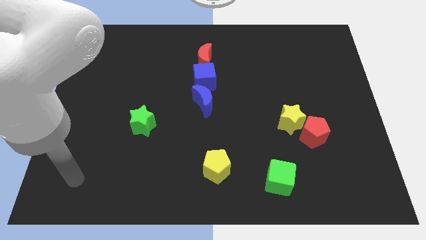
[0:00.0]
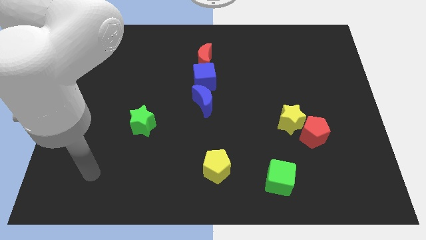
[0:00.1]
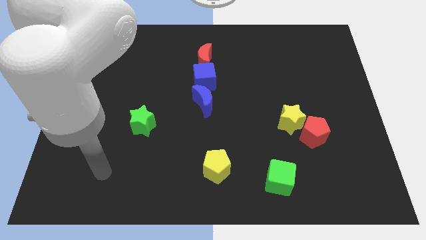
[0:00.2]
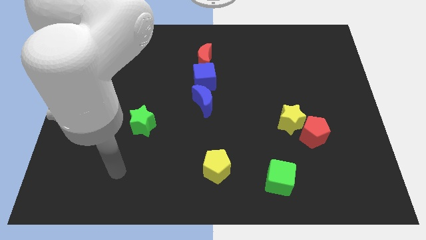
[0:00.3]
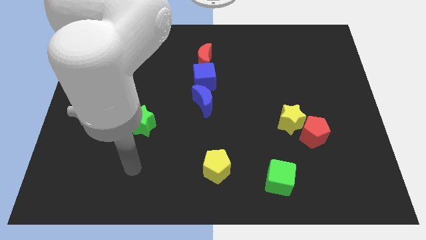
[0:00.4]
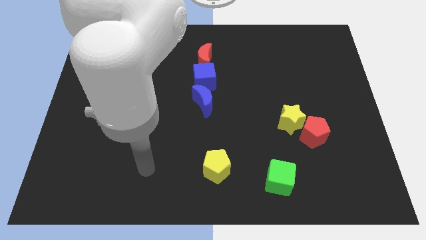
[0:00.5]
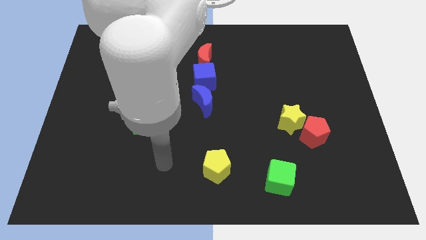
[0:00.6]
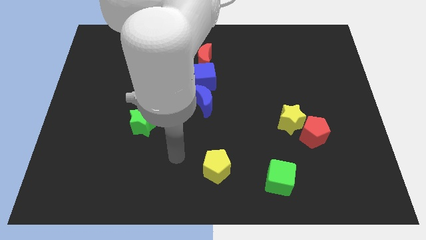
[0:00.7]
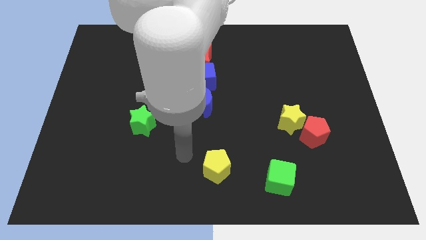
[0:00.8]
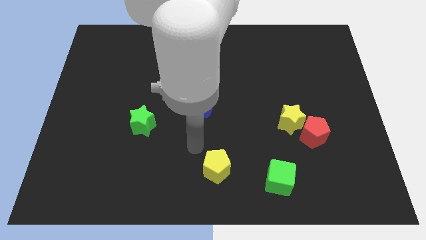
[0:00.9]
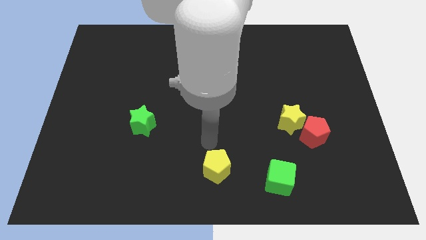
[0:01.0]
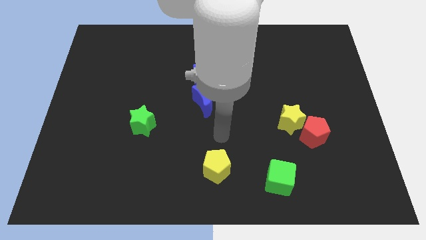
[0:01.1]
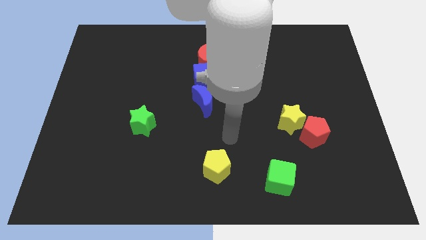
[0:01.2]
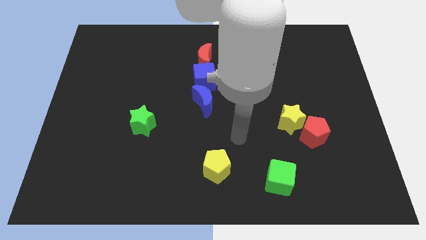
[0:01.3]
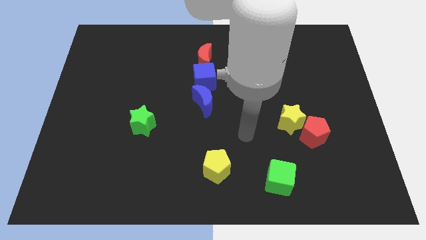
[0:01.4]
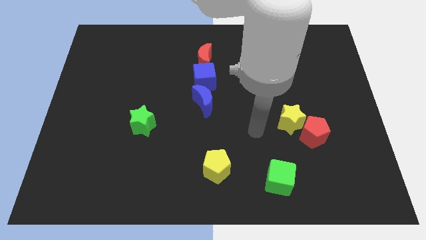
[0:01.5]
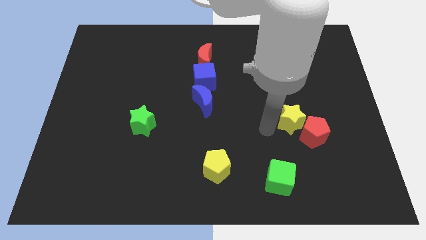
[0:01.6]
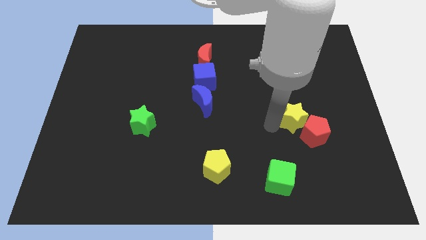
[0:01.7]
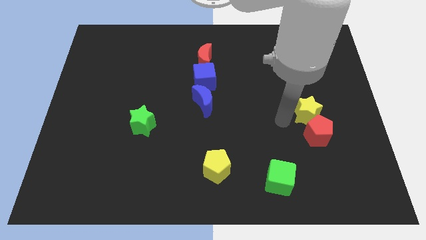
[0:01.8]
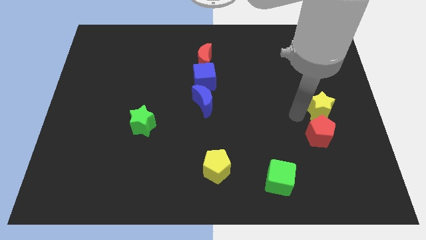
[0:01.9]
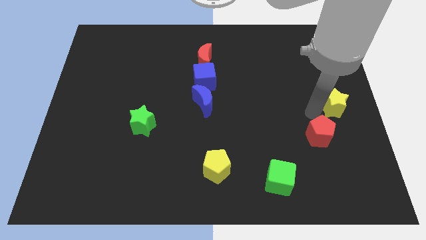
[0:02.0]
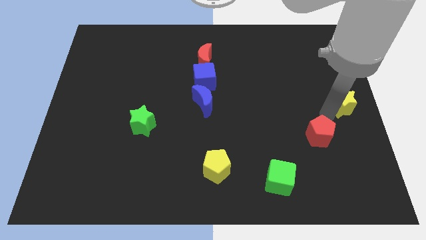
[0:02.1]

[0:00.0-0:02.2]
pull the red pentagon apart from the yellow star

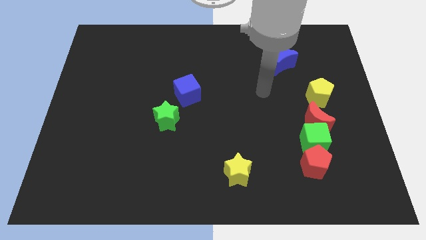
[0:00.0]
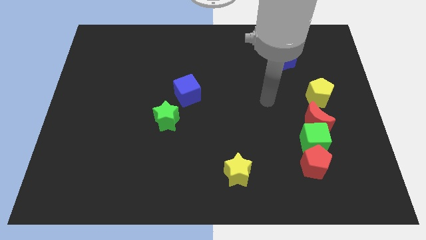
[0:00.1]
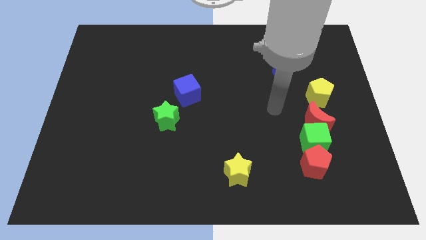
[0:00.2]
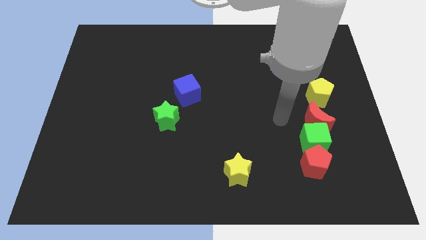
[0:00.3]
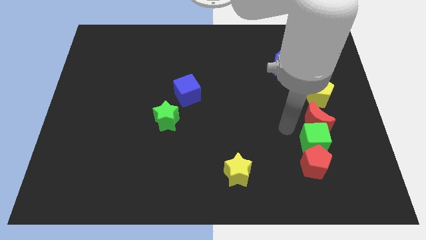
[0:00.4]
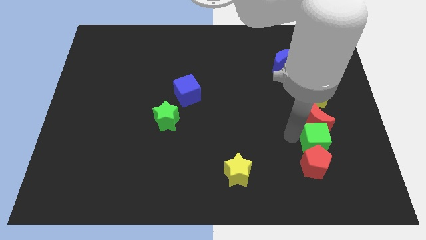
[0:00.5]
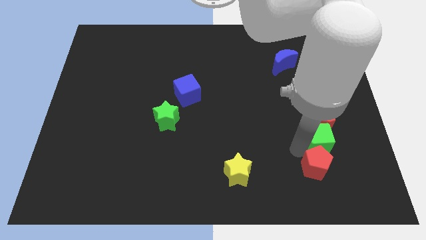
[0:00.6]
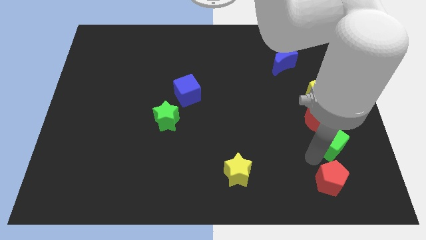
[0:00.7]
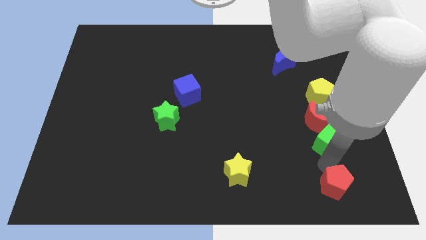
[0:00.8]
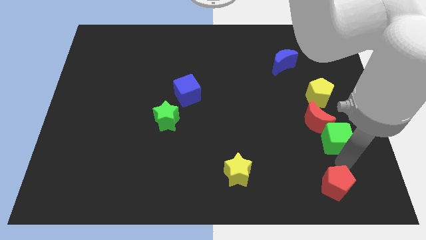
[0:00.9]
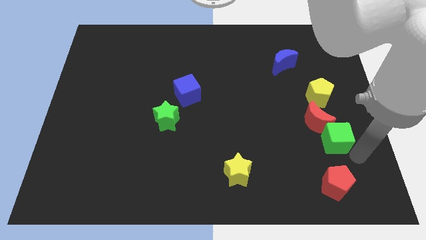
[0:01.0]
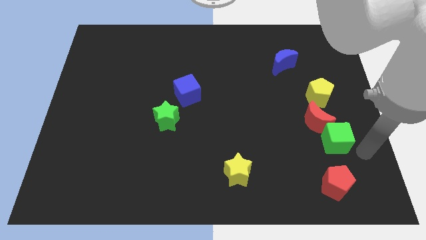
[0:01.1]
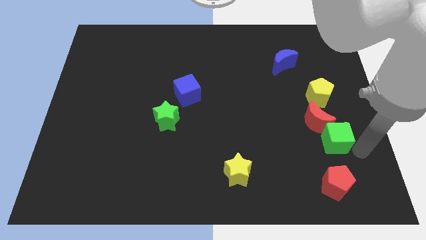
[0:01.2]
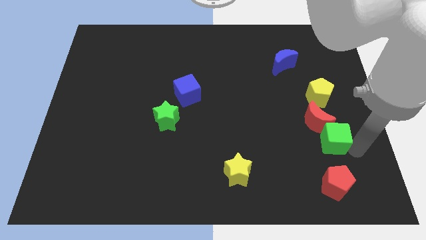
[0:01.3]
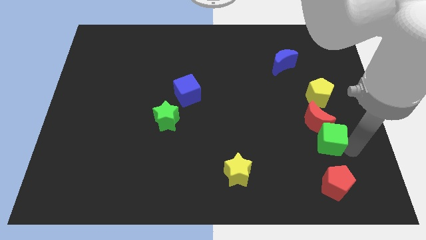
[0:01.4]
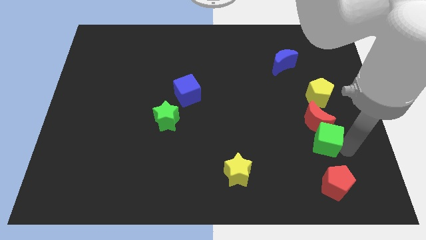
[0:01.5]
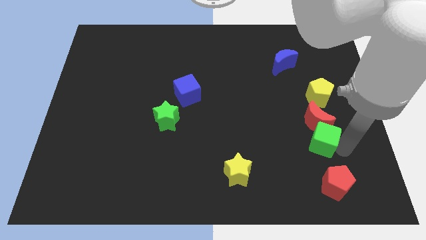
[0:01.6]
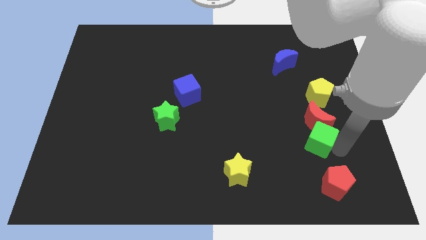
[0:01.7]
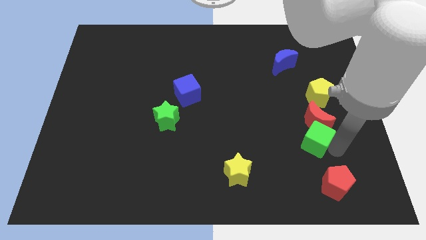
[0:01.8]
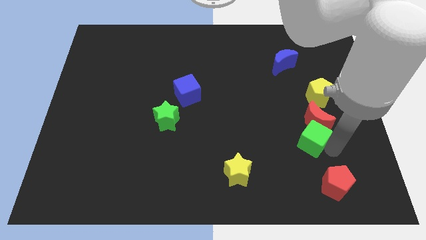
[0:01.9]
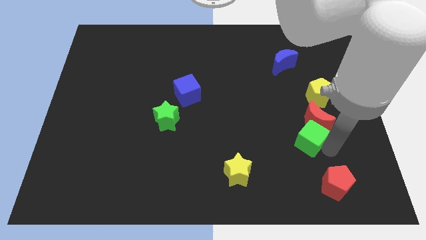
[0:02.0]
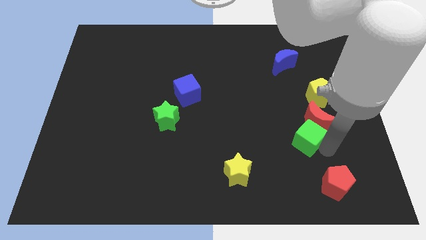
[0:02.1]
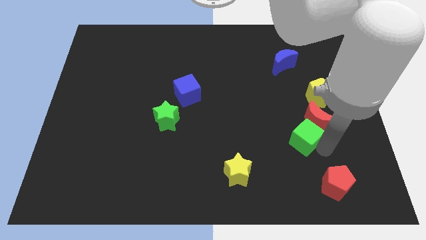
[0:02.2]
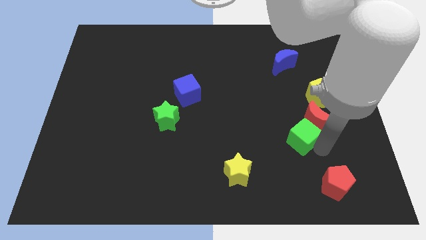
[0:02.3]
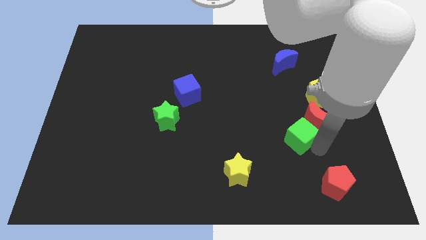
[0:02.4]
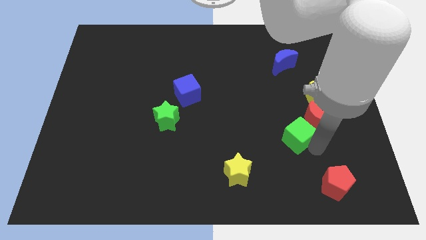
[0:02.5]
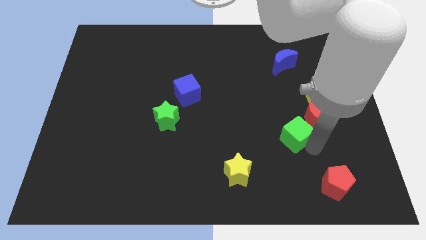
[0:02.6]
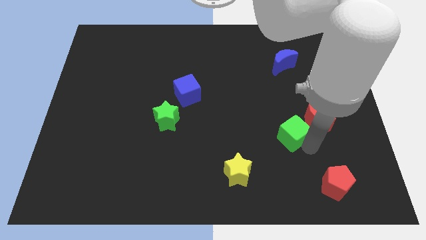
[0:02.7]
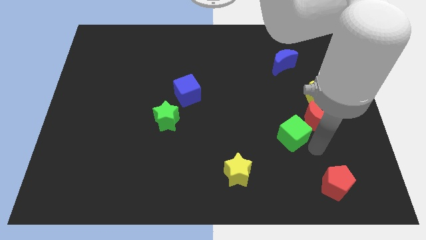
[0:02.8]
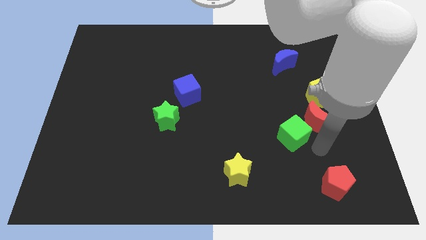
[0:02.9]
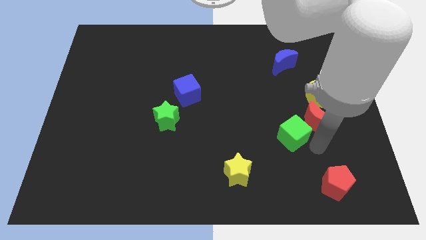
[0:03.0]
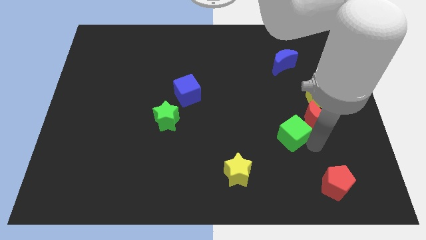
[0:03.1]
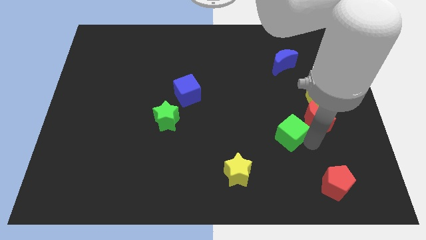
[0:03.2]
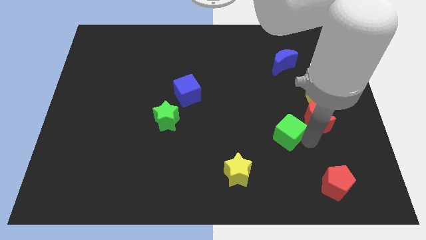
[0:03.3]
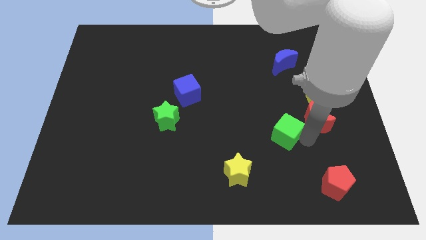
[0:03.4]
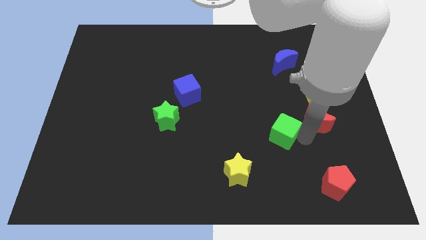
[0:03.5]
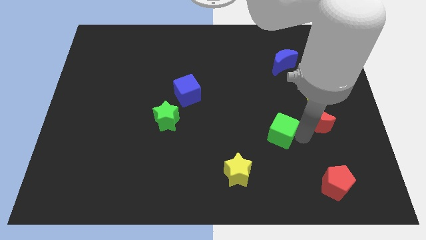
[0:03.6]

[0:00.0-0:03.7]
move the green cube away from the red moon and red pentagon

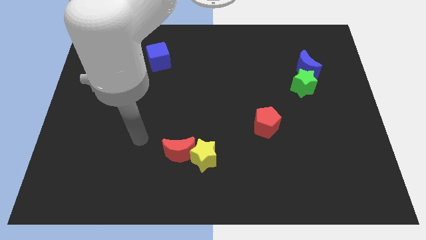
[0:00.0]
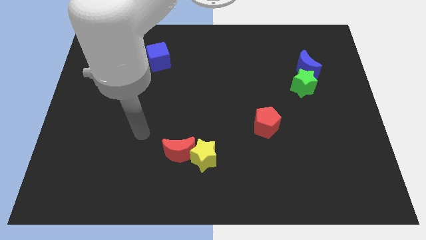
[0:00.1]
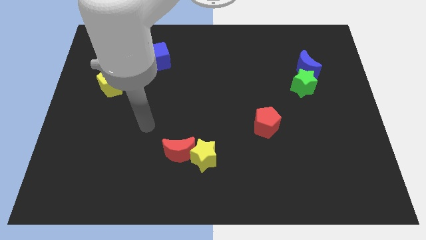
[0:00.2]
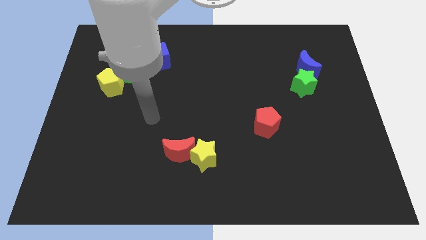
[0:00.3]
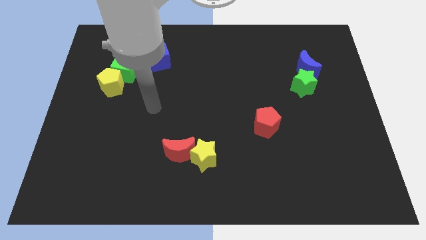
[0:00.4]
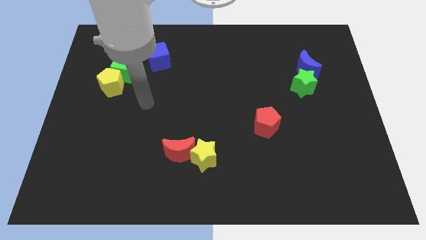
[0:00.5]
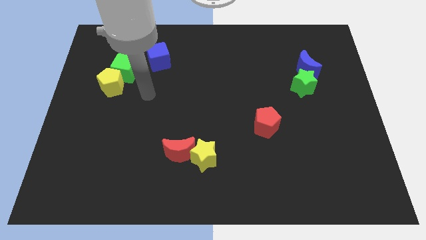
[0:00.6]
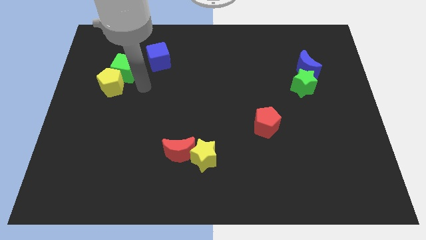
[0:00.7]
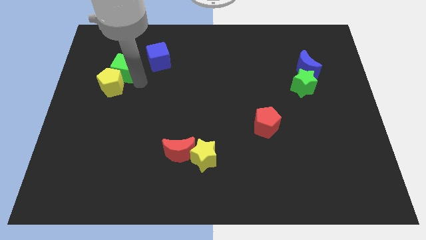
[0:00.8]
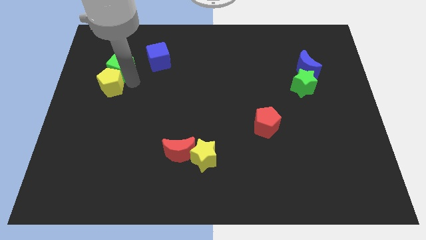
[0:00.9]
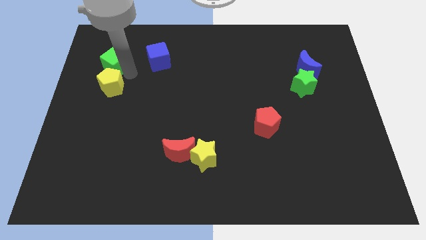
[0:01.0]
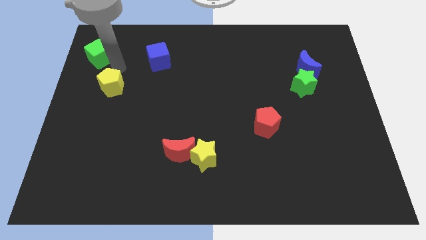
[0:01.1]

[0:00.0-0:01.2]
move the yellow pentagon away from the green cube

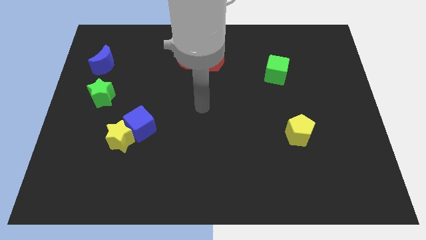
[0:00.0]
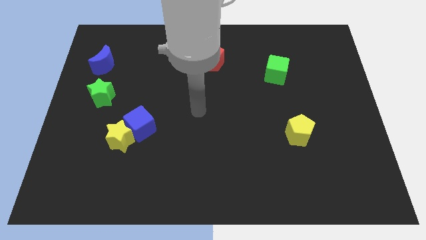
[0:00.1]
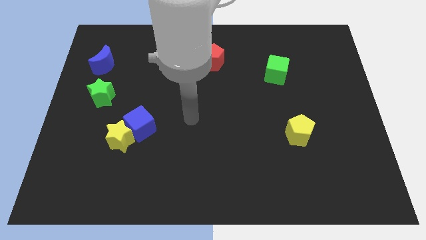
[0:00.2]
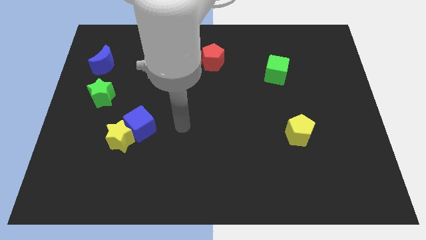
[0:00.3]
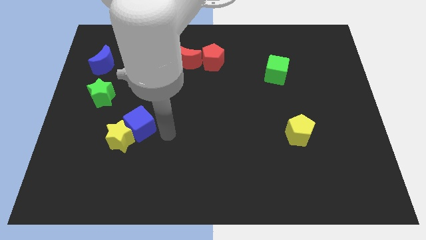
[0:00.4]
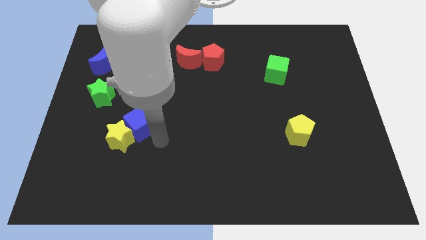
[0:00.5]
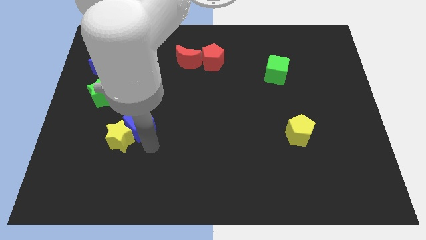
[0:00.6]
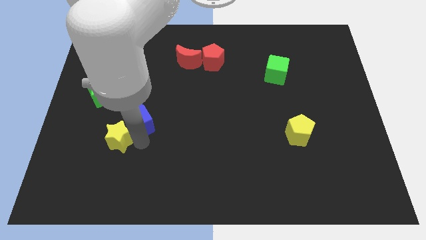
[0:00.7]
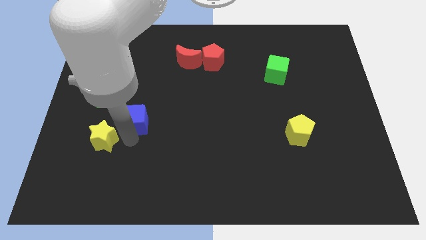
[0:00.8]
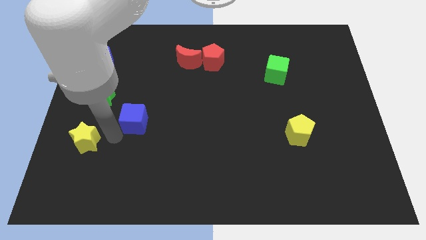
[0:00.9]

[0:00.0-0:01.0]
separate the blue cube from the yellow star

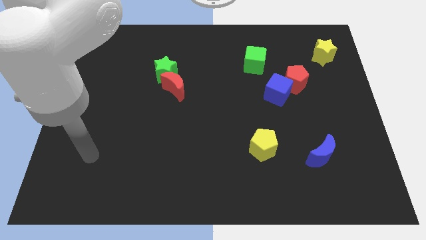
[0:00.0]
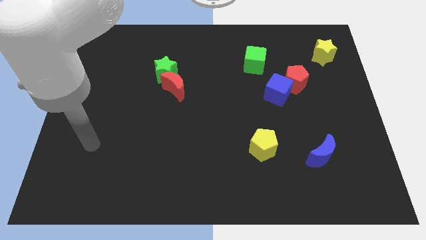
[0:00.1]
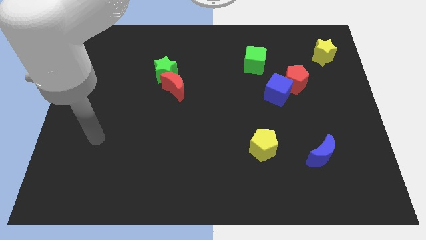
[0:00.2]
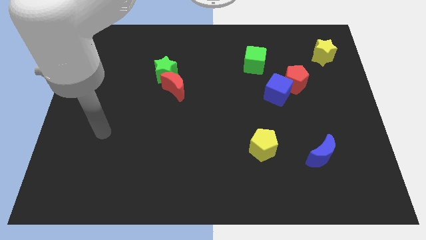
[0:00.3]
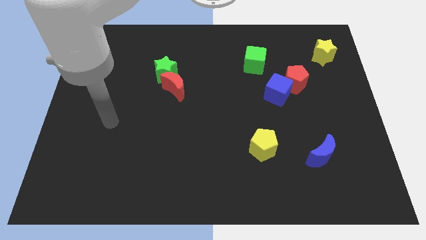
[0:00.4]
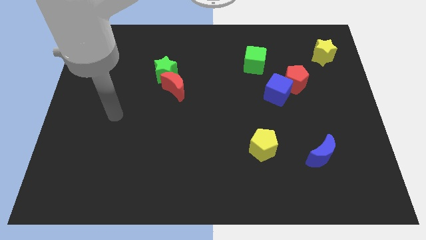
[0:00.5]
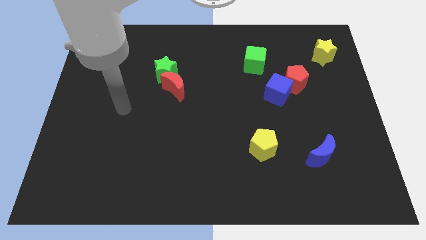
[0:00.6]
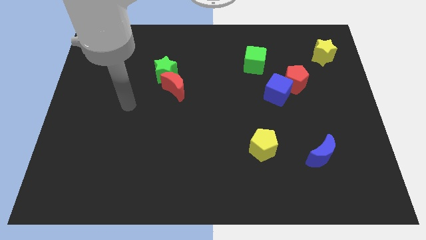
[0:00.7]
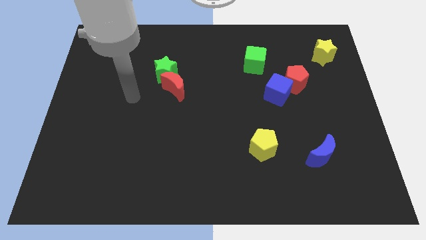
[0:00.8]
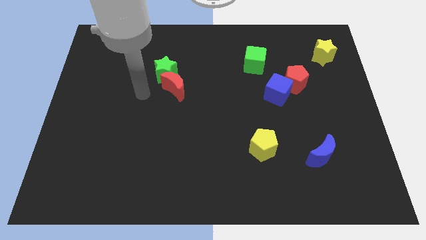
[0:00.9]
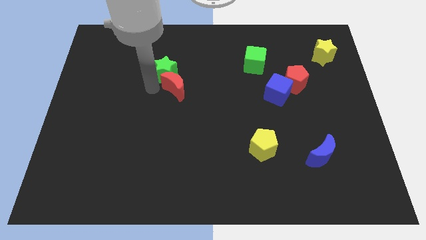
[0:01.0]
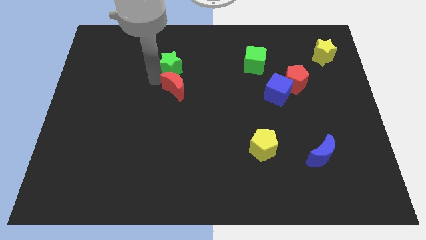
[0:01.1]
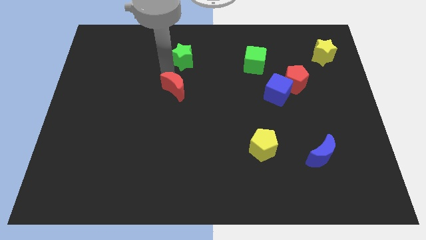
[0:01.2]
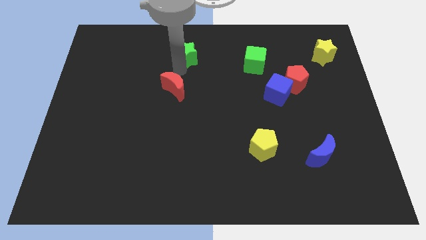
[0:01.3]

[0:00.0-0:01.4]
separate the red moon from the green star
